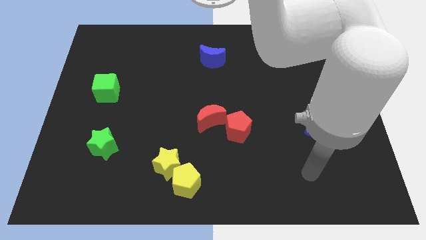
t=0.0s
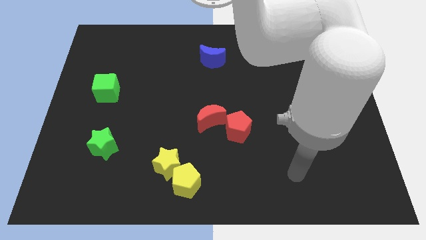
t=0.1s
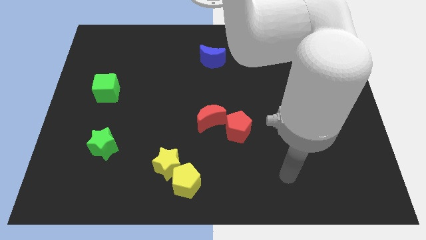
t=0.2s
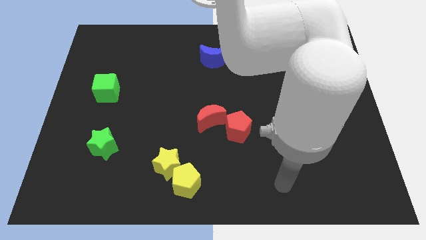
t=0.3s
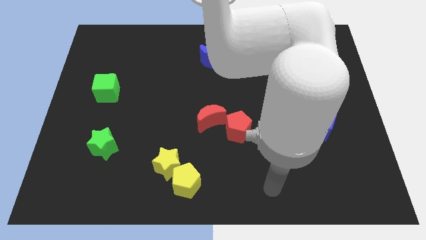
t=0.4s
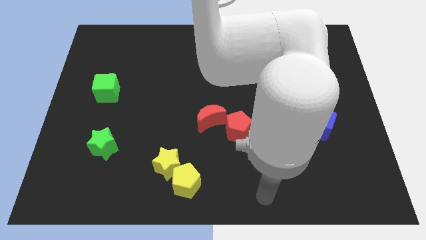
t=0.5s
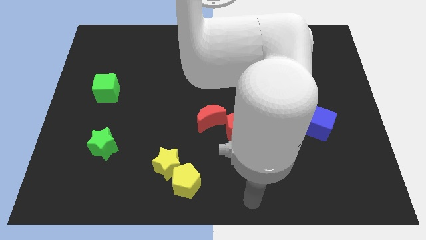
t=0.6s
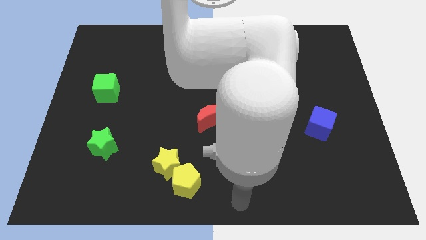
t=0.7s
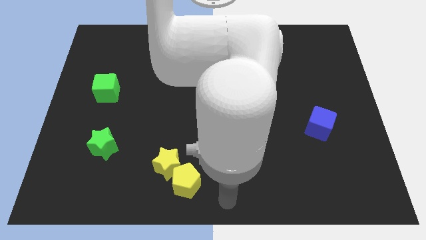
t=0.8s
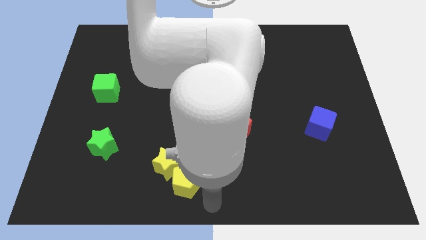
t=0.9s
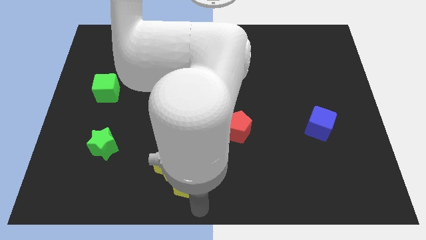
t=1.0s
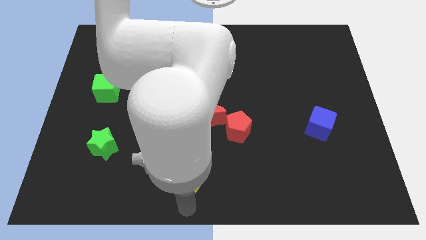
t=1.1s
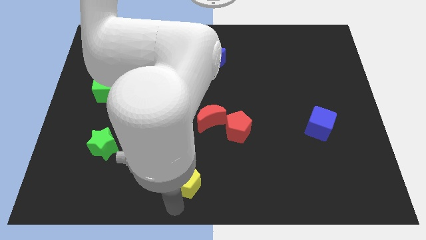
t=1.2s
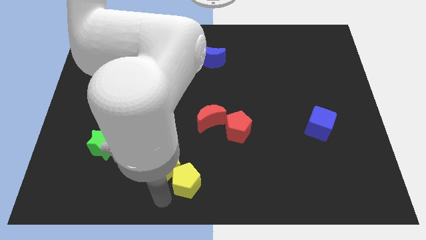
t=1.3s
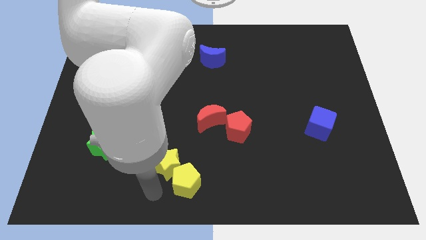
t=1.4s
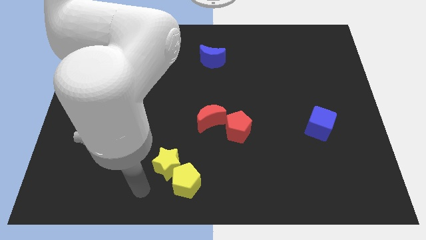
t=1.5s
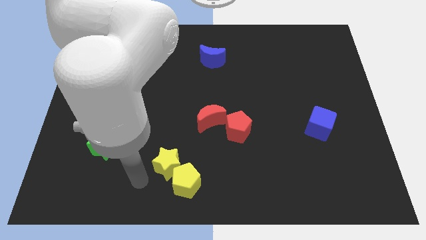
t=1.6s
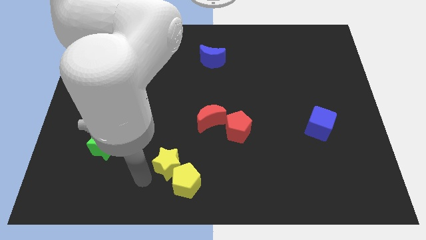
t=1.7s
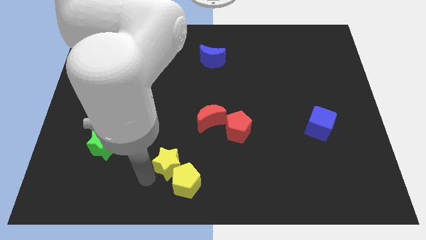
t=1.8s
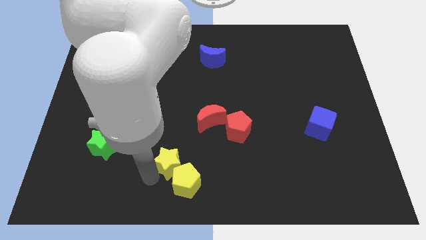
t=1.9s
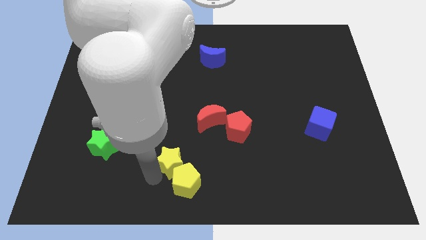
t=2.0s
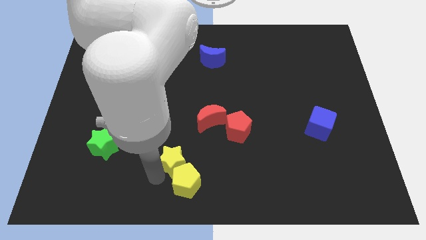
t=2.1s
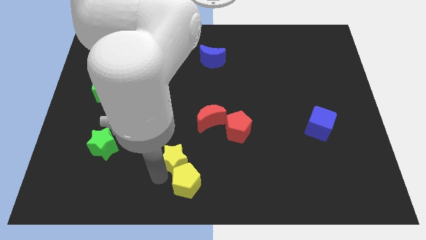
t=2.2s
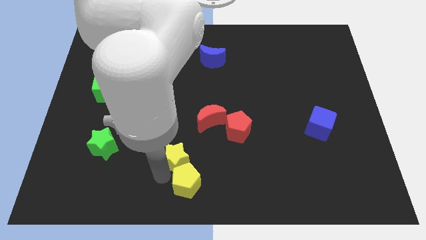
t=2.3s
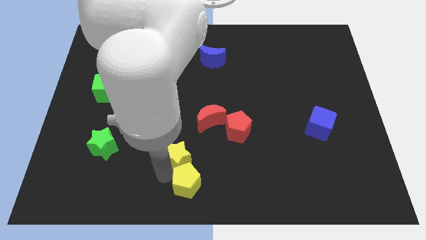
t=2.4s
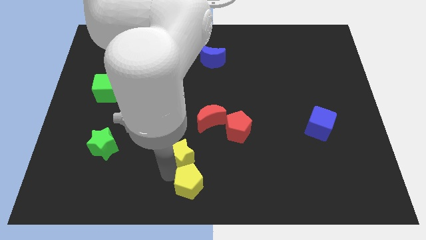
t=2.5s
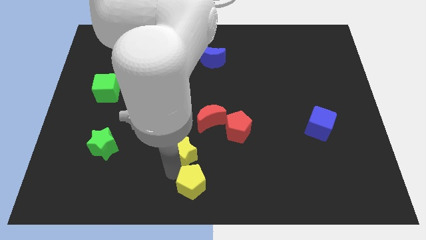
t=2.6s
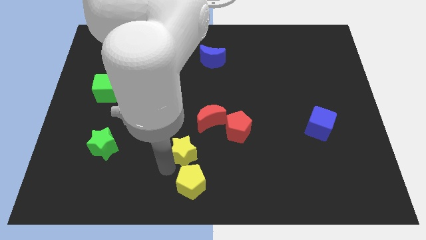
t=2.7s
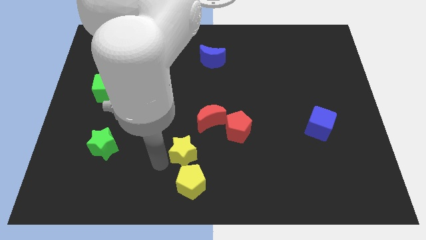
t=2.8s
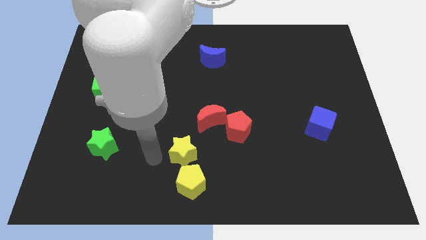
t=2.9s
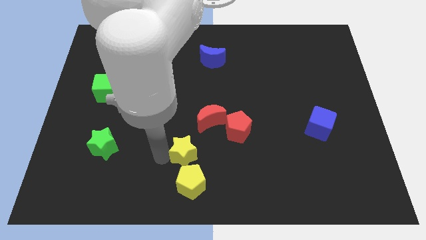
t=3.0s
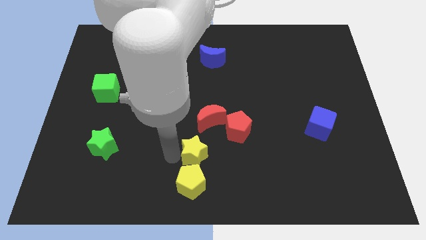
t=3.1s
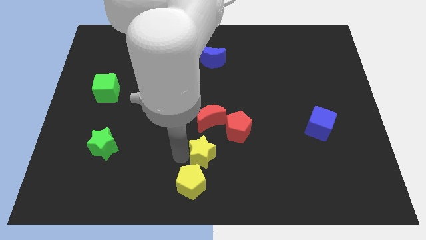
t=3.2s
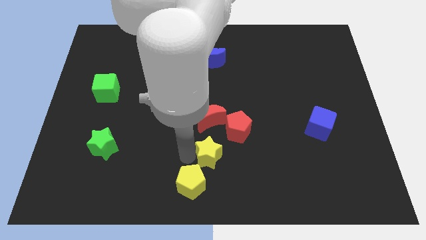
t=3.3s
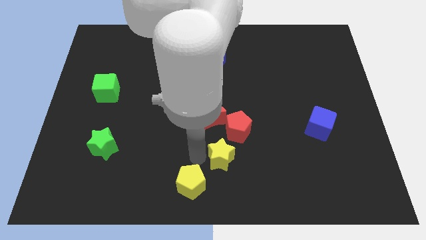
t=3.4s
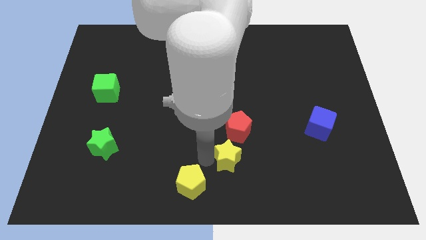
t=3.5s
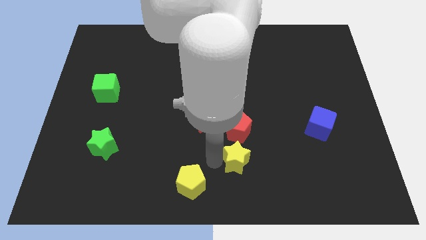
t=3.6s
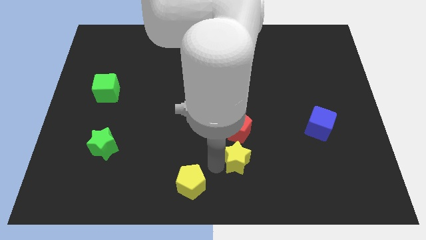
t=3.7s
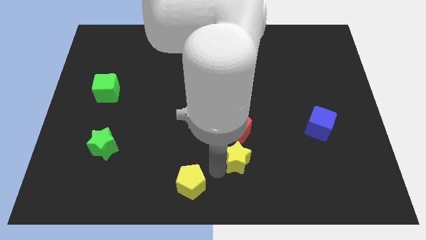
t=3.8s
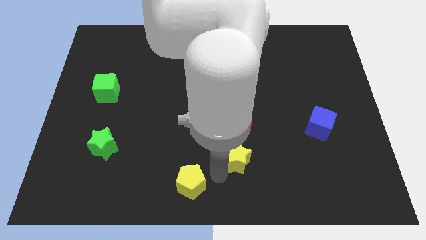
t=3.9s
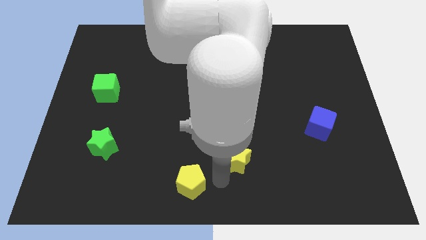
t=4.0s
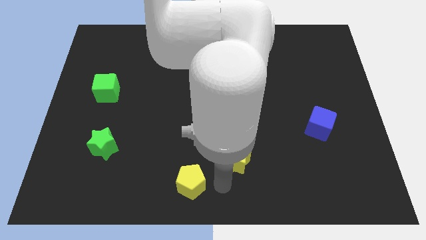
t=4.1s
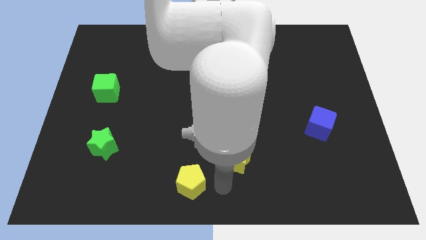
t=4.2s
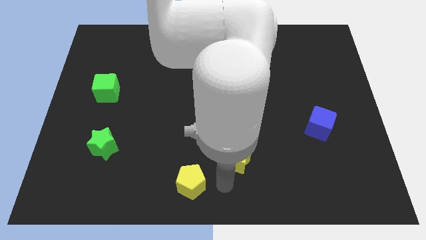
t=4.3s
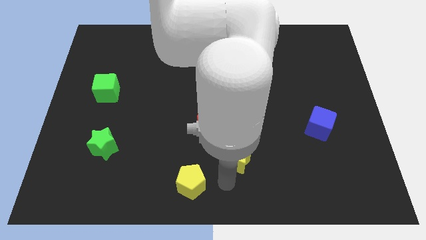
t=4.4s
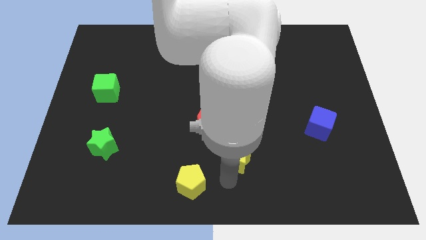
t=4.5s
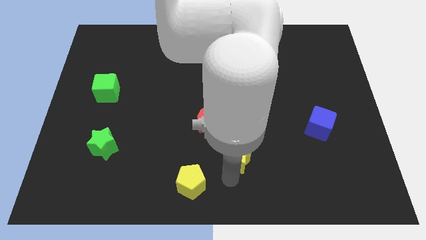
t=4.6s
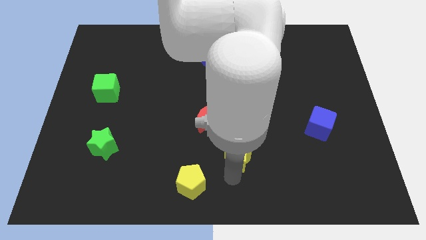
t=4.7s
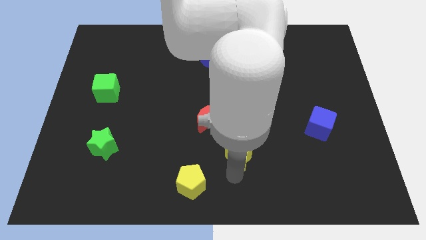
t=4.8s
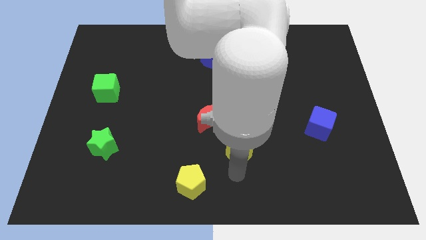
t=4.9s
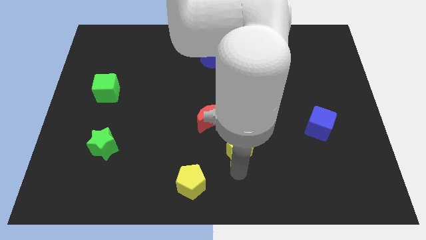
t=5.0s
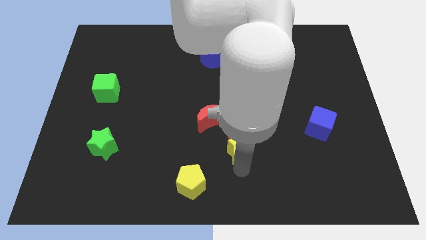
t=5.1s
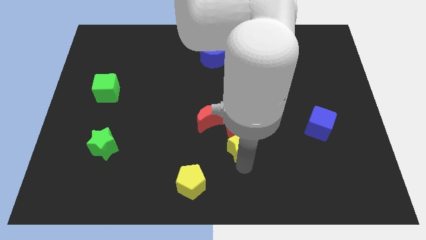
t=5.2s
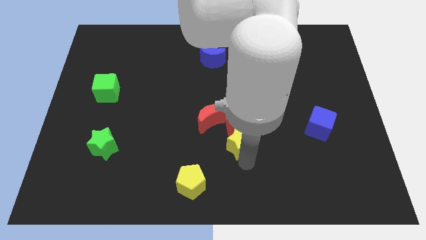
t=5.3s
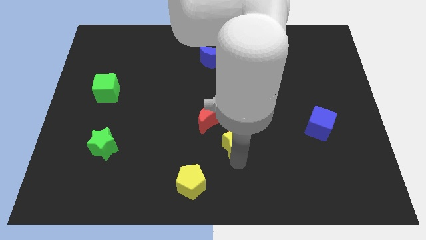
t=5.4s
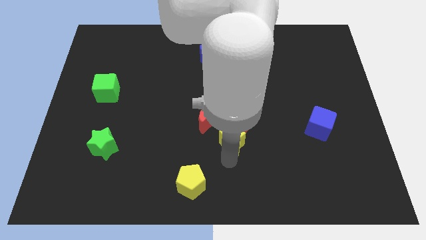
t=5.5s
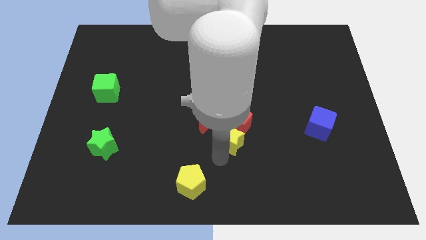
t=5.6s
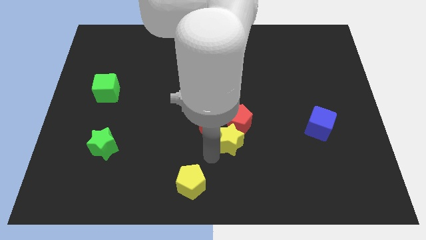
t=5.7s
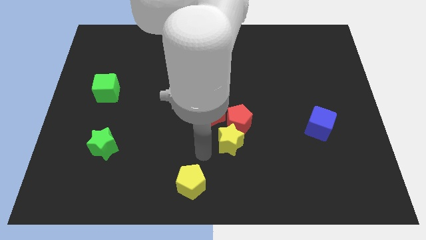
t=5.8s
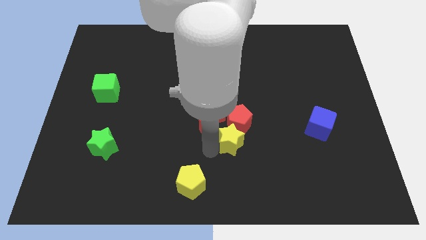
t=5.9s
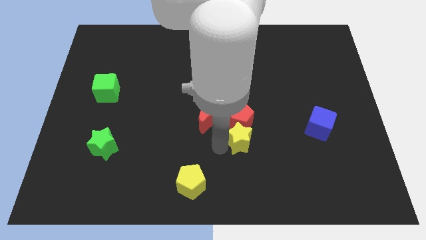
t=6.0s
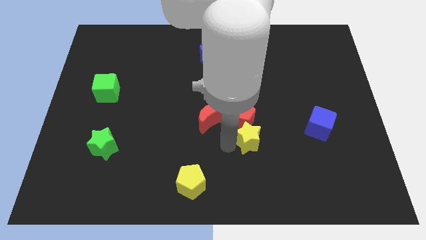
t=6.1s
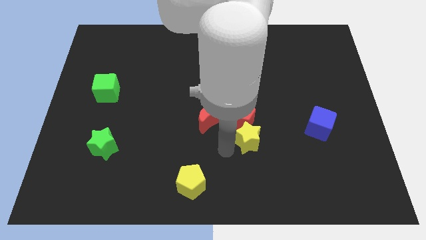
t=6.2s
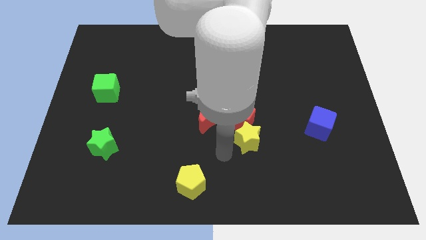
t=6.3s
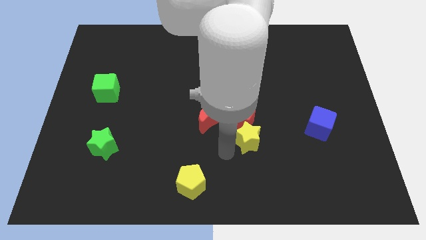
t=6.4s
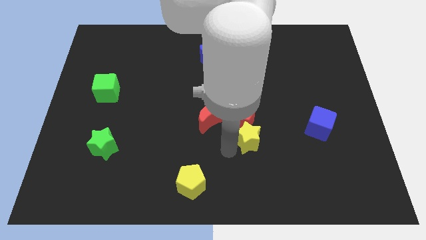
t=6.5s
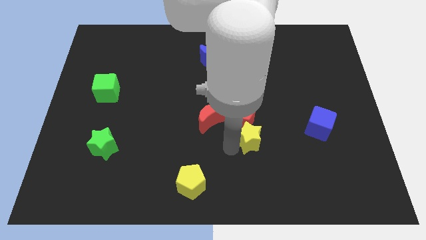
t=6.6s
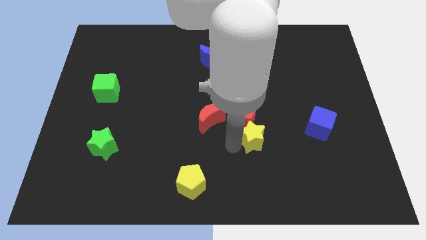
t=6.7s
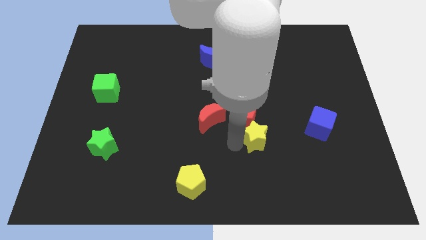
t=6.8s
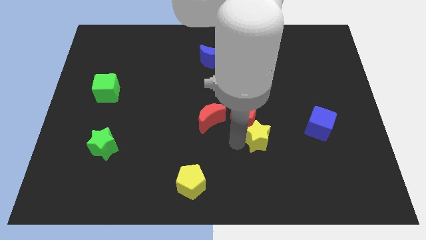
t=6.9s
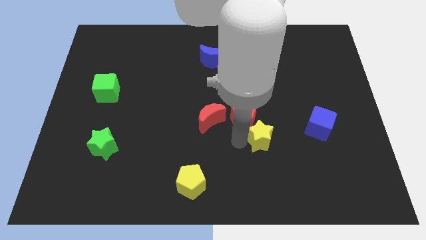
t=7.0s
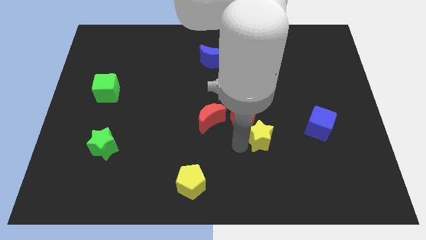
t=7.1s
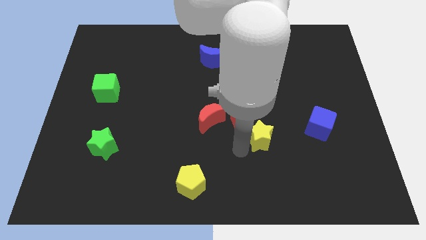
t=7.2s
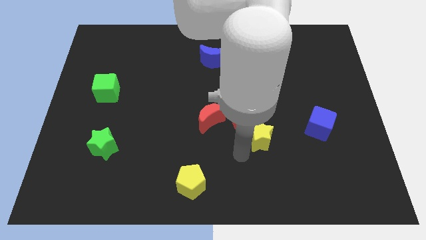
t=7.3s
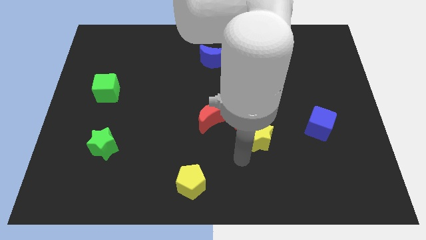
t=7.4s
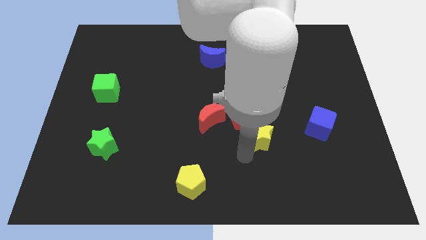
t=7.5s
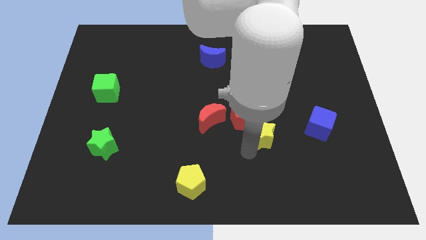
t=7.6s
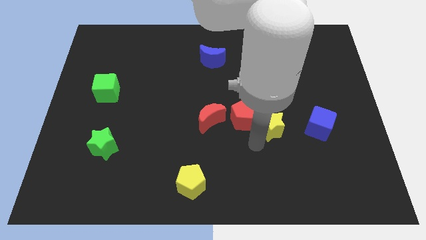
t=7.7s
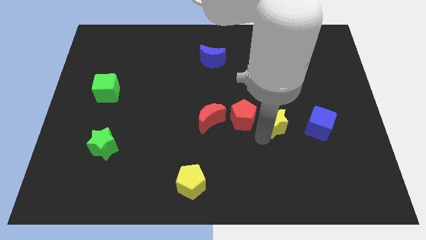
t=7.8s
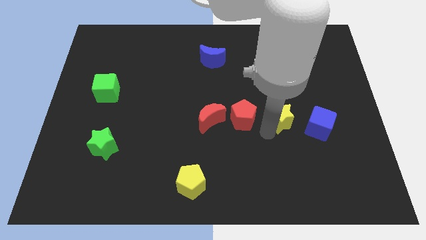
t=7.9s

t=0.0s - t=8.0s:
move the yellow star to the top left side of the blue cube

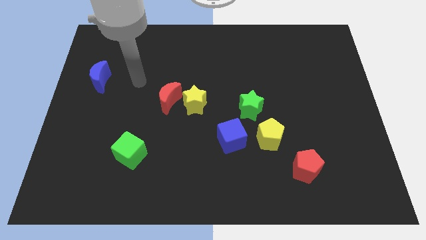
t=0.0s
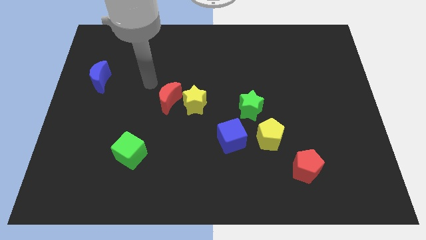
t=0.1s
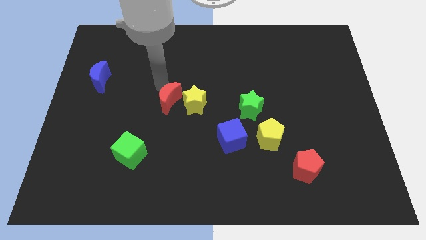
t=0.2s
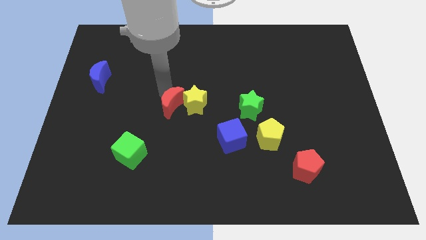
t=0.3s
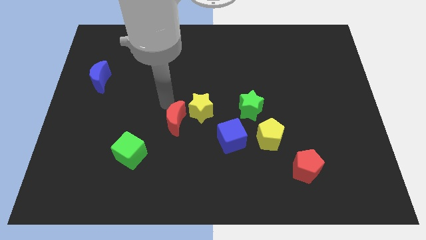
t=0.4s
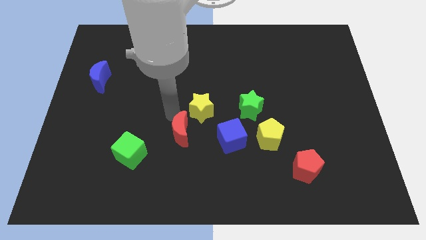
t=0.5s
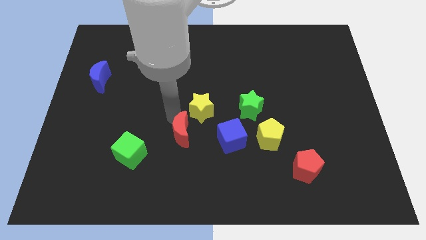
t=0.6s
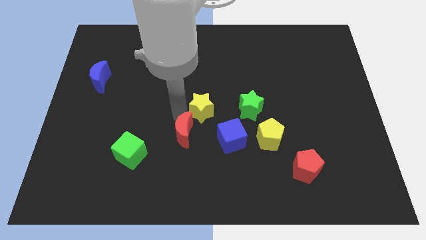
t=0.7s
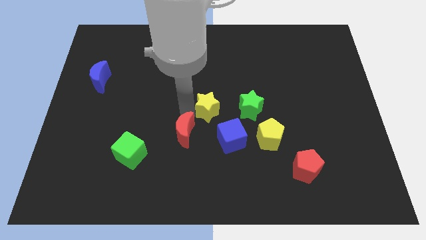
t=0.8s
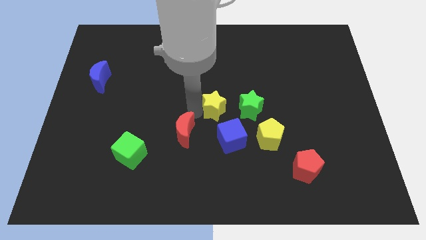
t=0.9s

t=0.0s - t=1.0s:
move the yellow star to the top of the blue cube
